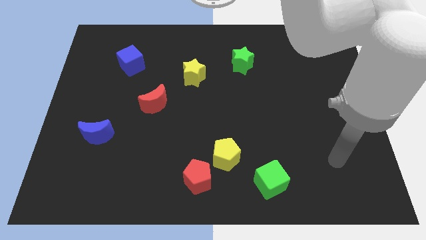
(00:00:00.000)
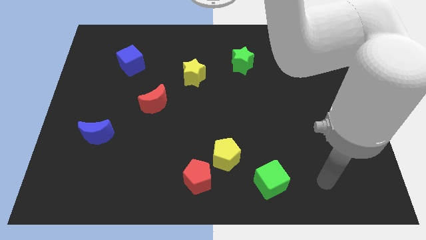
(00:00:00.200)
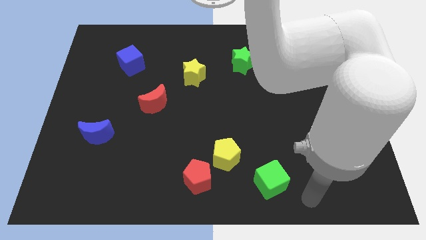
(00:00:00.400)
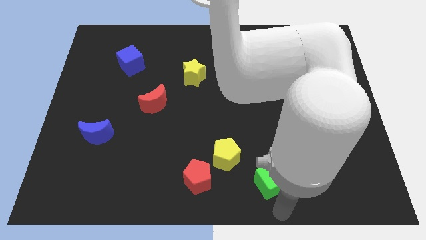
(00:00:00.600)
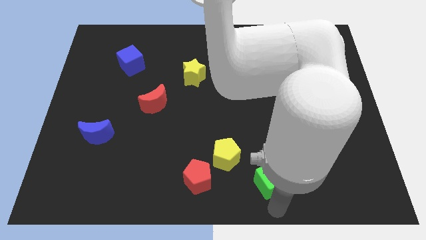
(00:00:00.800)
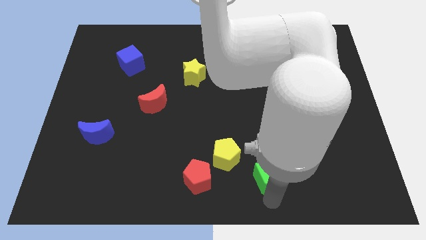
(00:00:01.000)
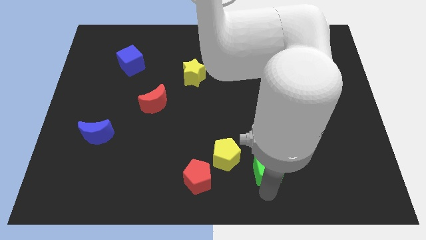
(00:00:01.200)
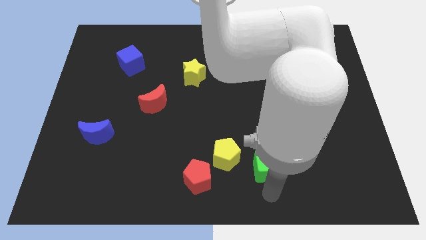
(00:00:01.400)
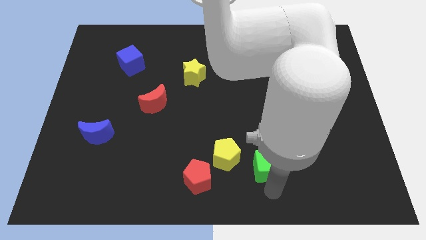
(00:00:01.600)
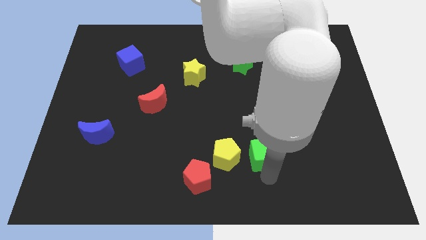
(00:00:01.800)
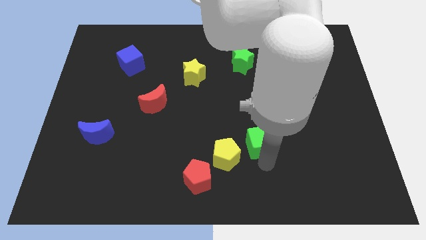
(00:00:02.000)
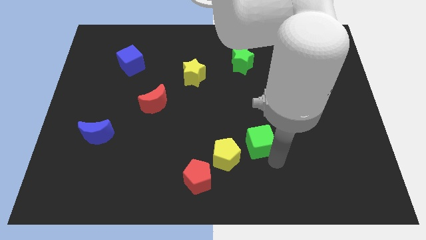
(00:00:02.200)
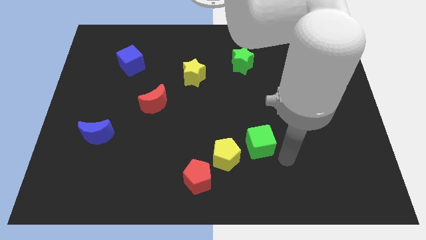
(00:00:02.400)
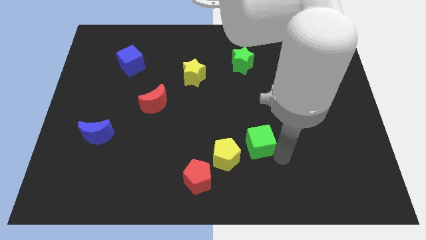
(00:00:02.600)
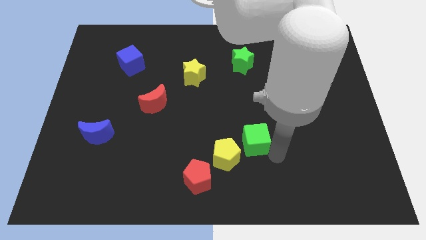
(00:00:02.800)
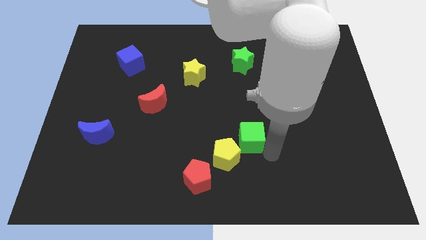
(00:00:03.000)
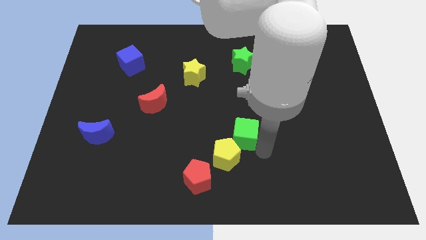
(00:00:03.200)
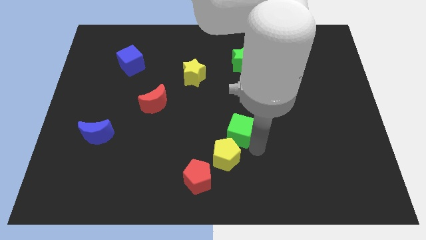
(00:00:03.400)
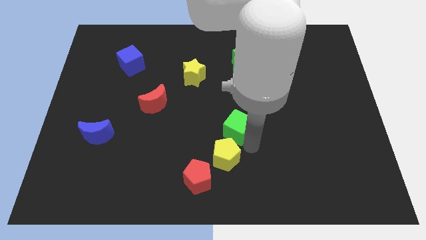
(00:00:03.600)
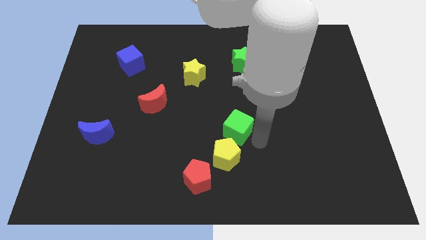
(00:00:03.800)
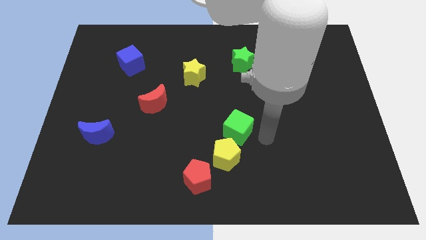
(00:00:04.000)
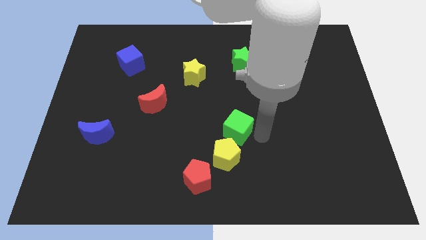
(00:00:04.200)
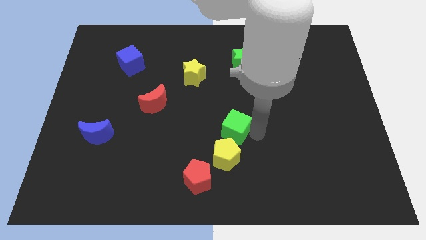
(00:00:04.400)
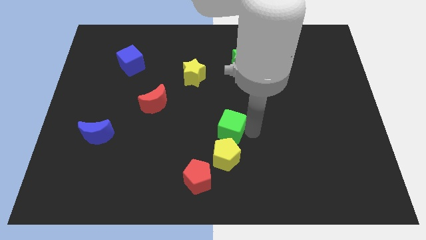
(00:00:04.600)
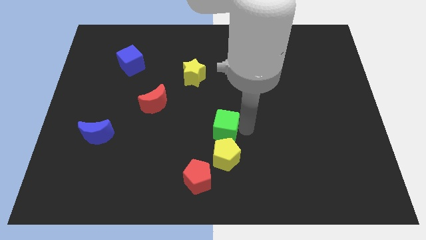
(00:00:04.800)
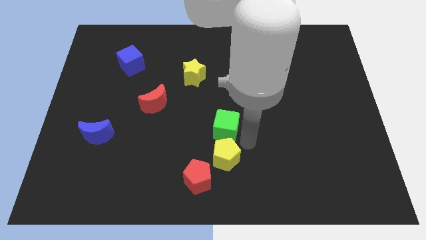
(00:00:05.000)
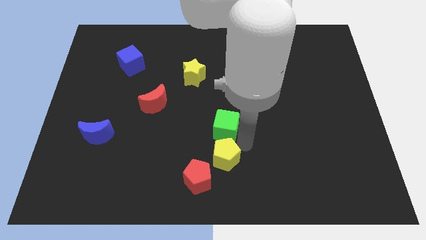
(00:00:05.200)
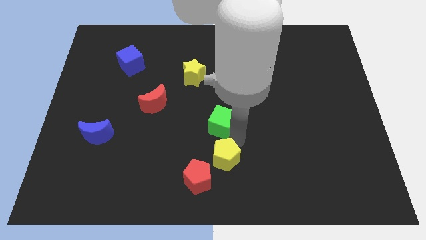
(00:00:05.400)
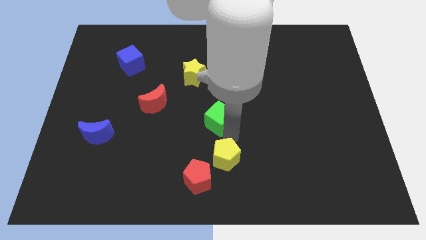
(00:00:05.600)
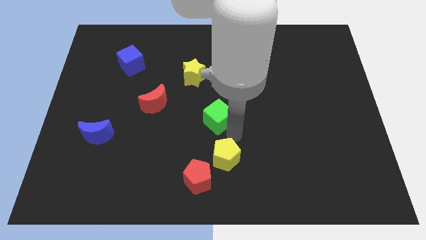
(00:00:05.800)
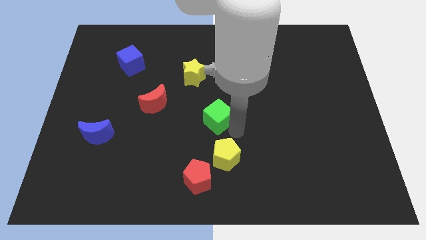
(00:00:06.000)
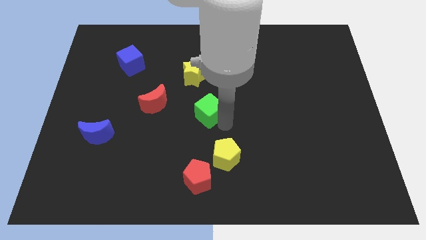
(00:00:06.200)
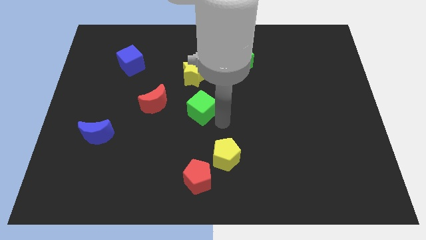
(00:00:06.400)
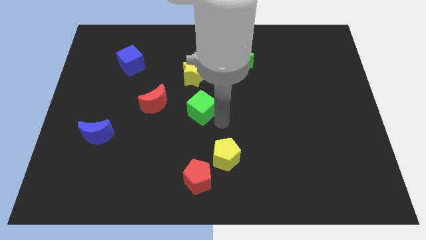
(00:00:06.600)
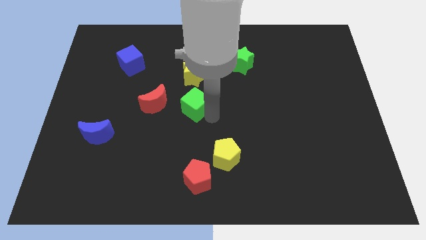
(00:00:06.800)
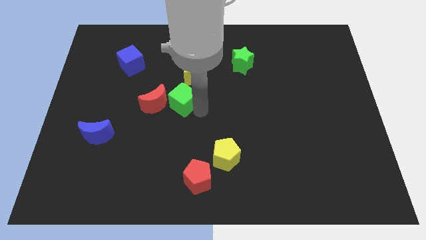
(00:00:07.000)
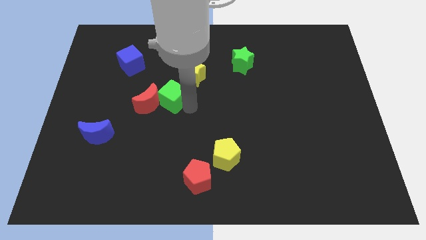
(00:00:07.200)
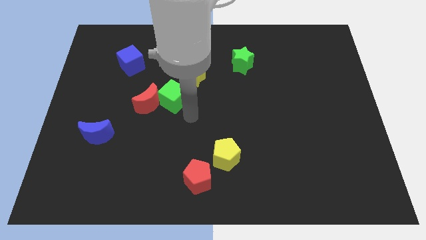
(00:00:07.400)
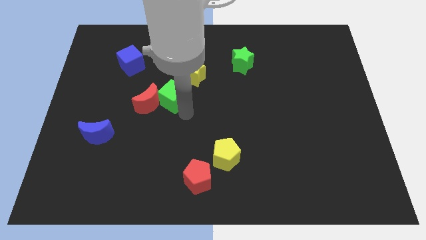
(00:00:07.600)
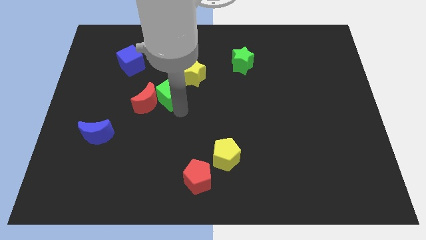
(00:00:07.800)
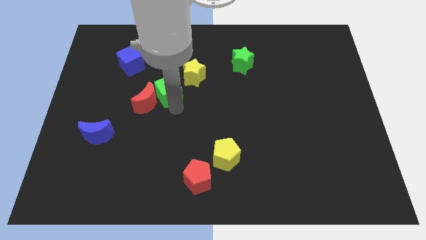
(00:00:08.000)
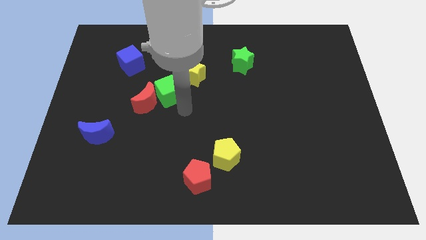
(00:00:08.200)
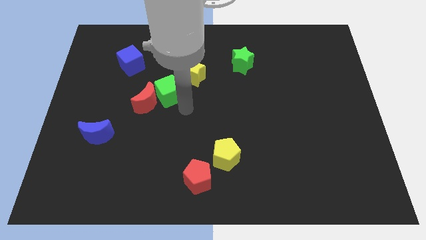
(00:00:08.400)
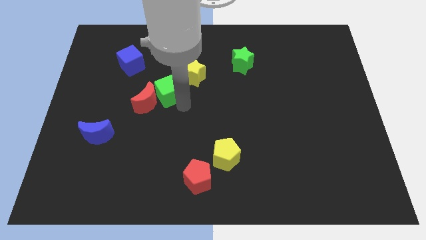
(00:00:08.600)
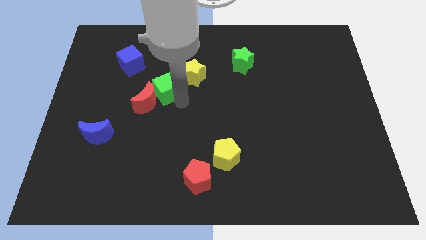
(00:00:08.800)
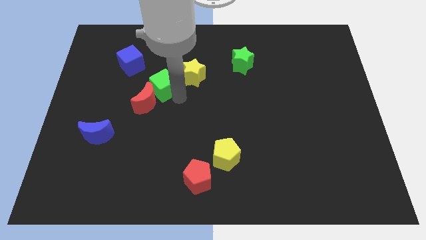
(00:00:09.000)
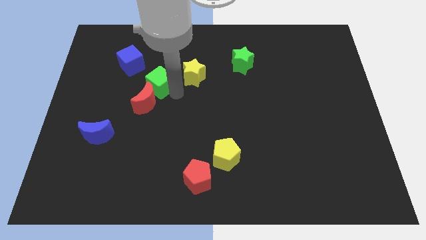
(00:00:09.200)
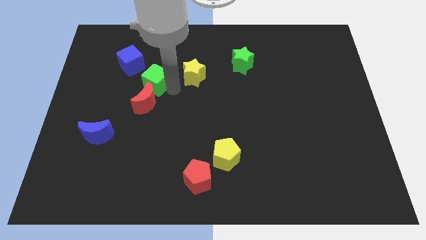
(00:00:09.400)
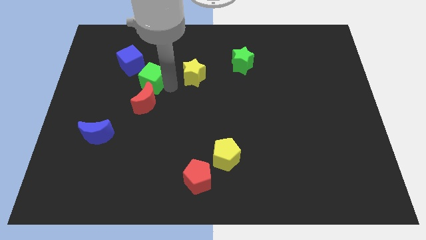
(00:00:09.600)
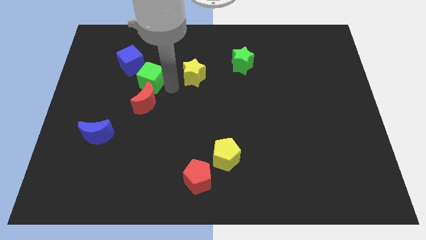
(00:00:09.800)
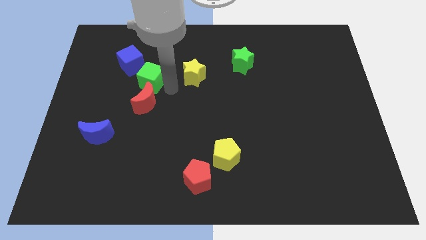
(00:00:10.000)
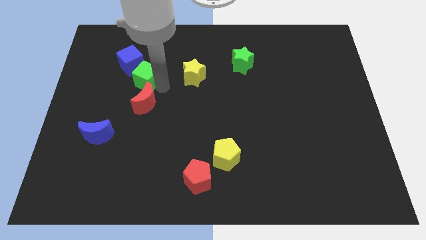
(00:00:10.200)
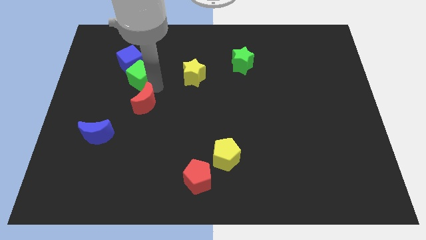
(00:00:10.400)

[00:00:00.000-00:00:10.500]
put the green cube next to the blue cube

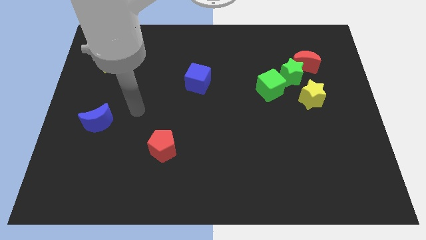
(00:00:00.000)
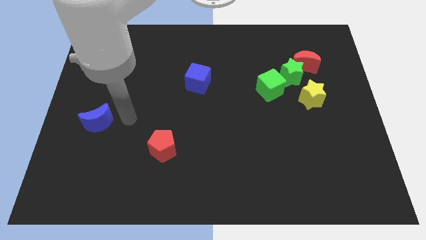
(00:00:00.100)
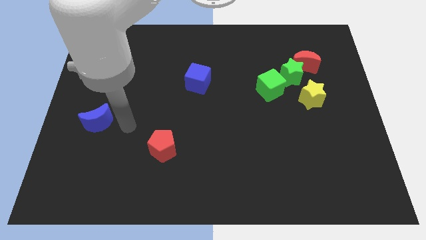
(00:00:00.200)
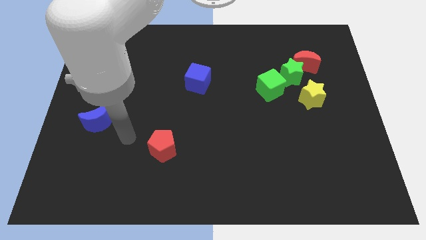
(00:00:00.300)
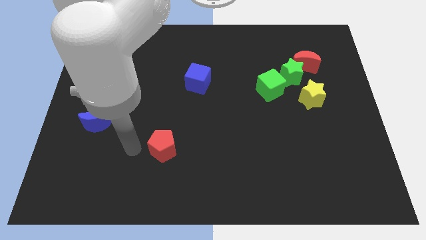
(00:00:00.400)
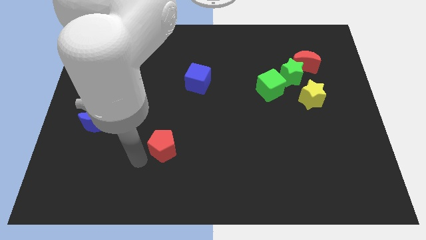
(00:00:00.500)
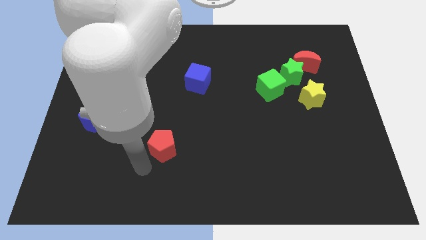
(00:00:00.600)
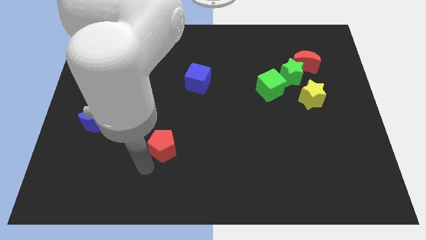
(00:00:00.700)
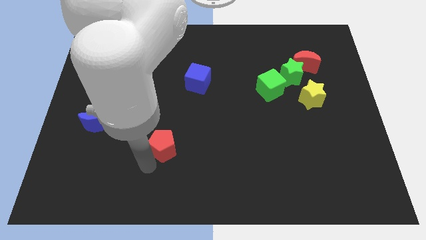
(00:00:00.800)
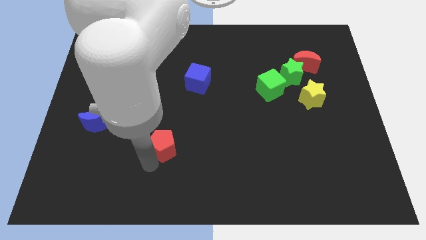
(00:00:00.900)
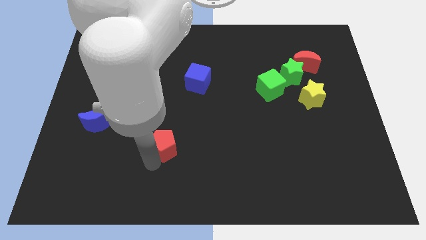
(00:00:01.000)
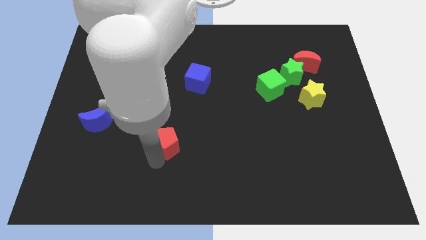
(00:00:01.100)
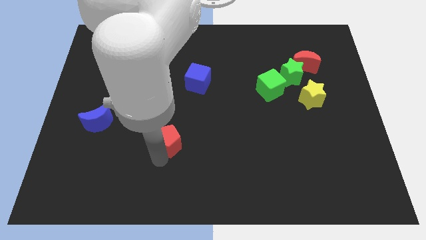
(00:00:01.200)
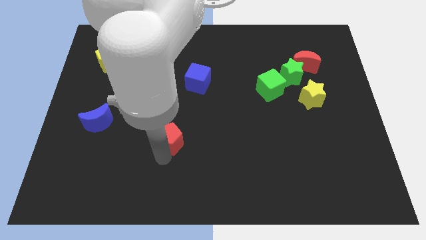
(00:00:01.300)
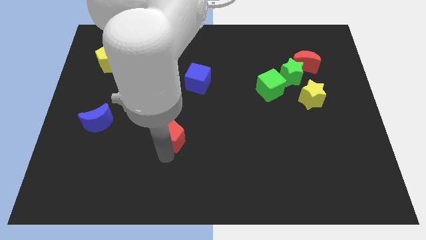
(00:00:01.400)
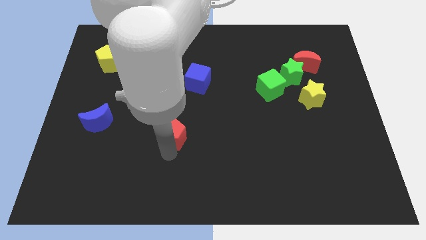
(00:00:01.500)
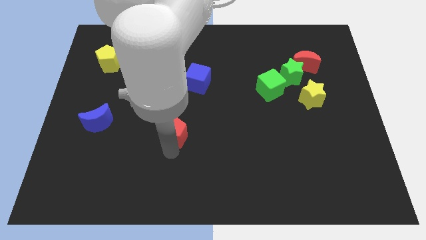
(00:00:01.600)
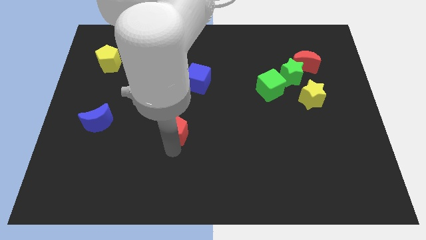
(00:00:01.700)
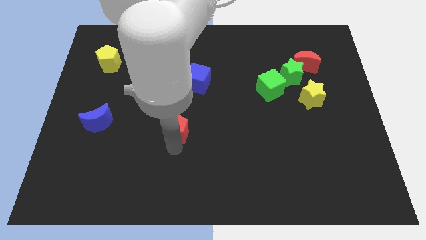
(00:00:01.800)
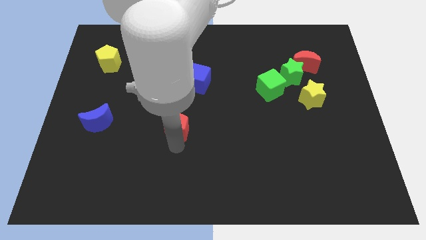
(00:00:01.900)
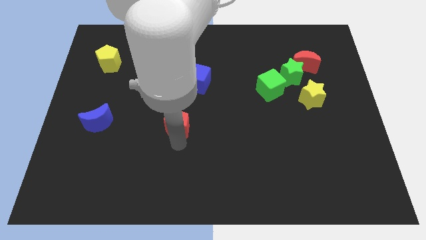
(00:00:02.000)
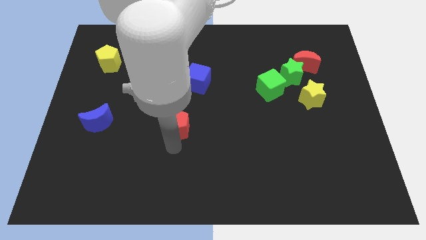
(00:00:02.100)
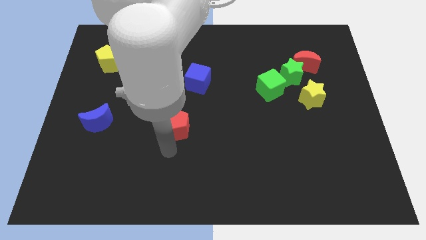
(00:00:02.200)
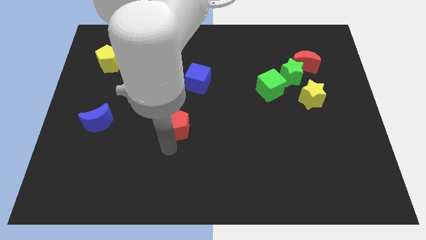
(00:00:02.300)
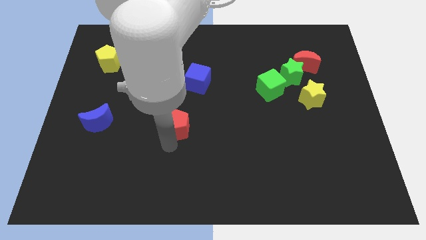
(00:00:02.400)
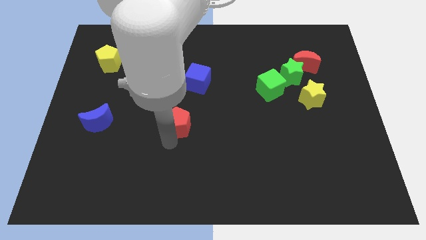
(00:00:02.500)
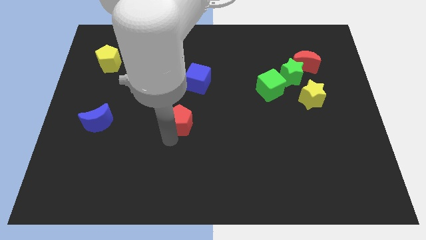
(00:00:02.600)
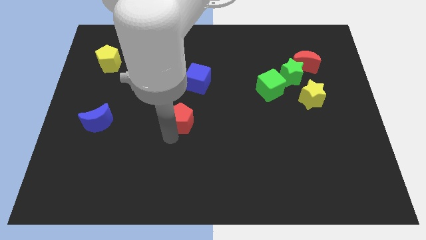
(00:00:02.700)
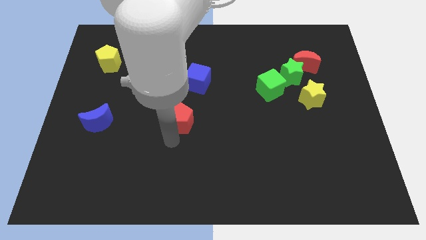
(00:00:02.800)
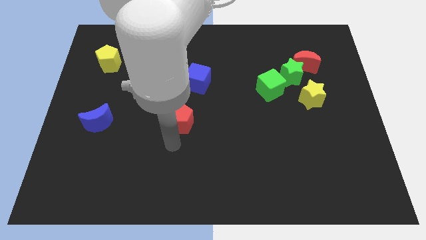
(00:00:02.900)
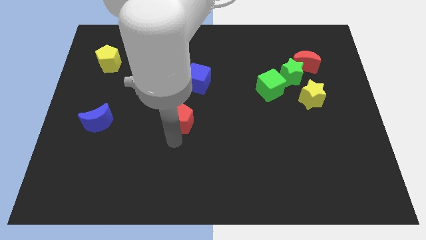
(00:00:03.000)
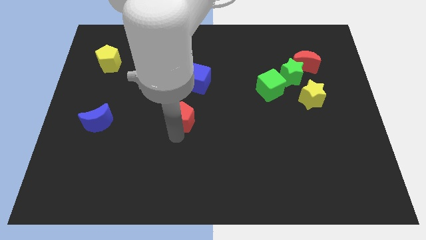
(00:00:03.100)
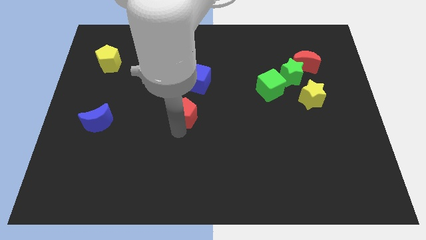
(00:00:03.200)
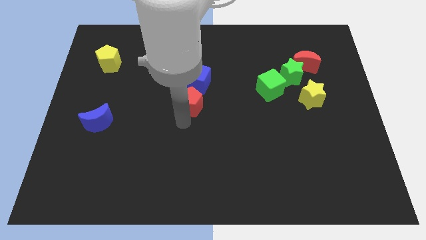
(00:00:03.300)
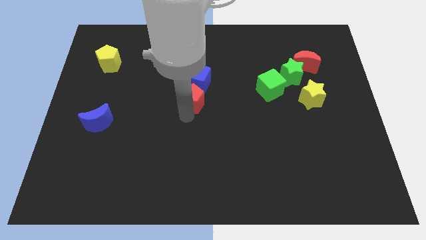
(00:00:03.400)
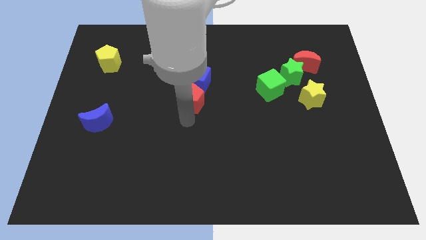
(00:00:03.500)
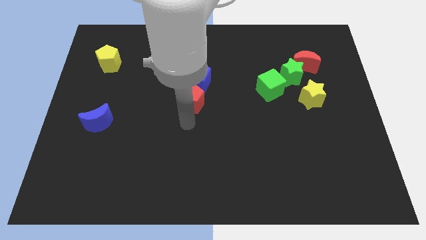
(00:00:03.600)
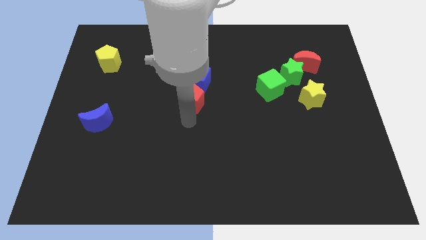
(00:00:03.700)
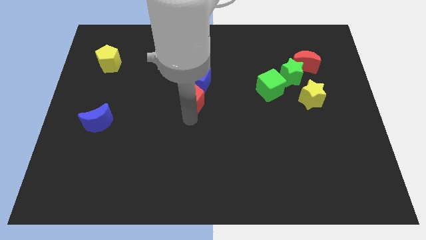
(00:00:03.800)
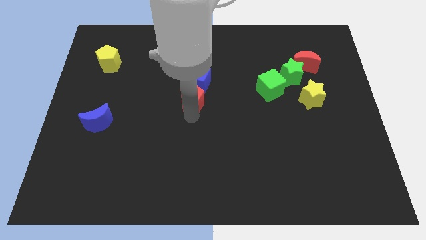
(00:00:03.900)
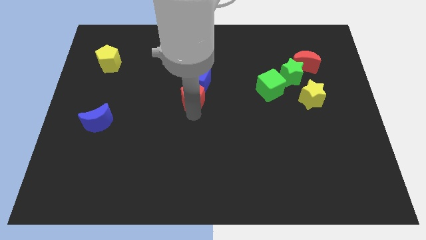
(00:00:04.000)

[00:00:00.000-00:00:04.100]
slide the red pentagon to the blue cube
